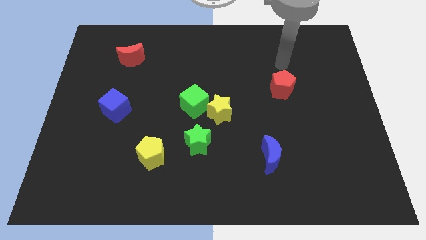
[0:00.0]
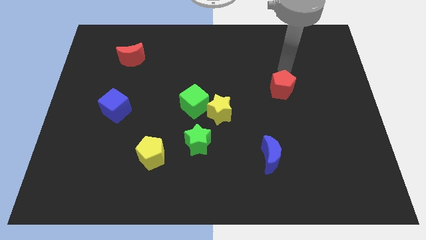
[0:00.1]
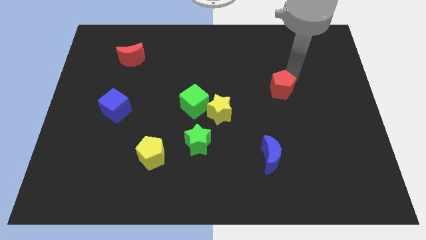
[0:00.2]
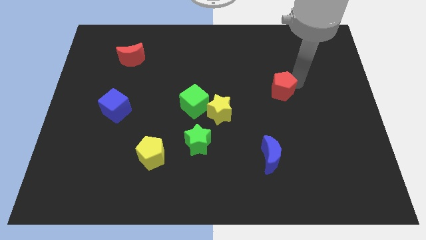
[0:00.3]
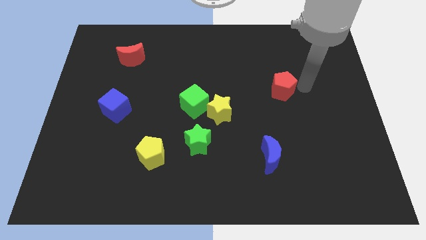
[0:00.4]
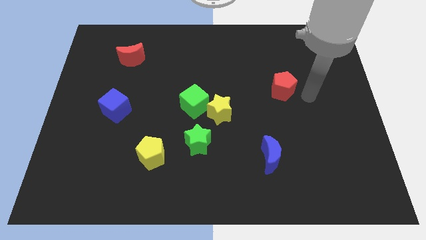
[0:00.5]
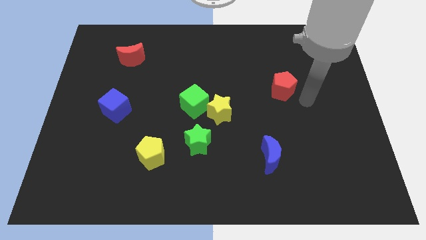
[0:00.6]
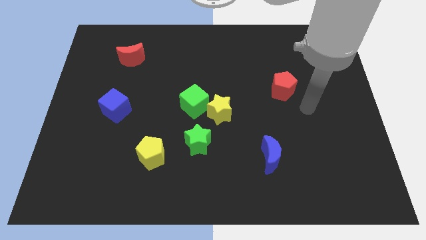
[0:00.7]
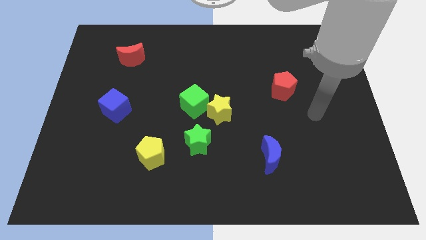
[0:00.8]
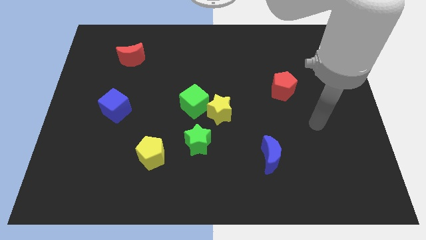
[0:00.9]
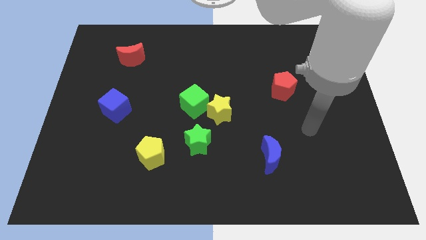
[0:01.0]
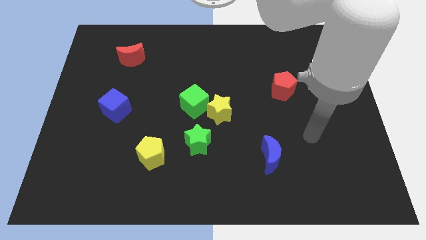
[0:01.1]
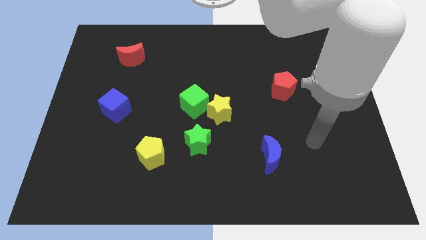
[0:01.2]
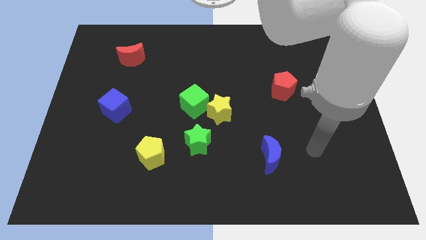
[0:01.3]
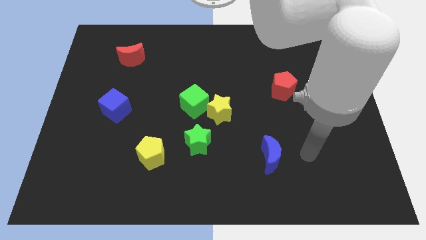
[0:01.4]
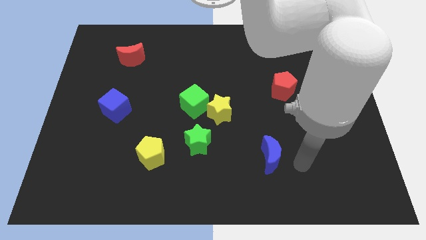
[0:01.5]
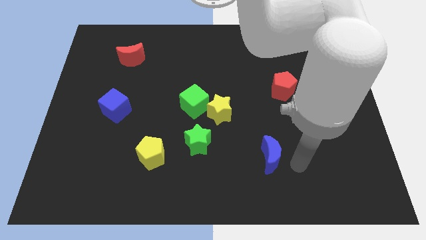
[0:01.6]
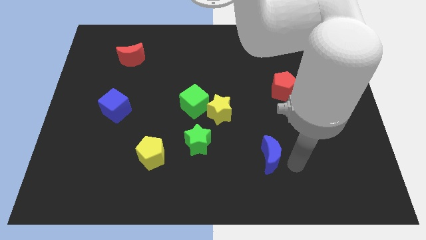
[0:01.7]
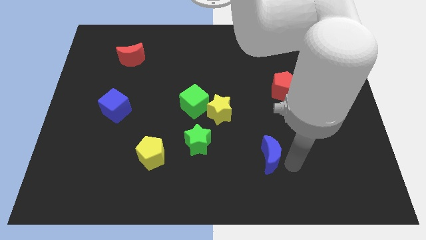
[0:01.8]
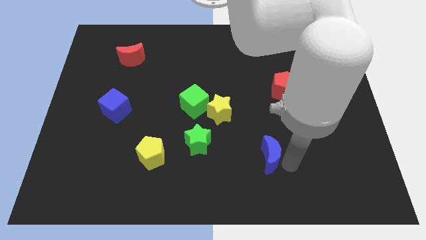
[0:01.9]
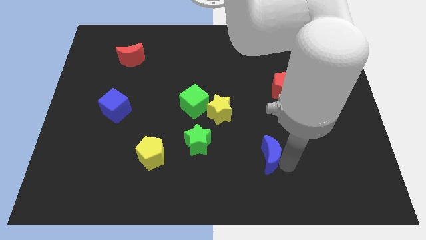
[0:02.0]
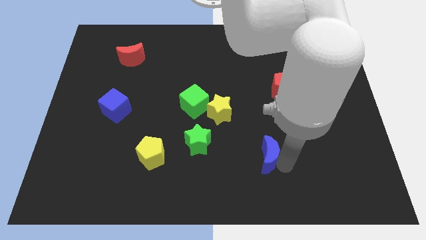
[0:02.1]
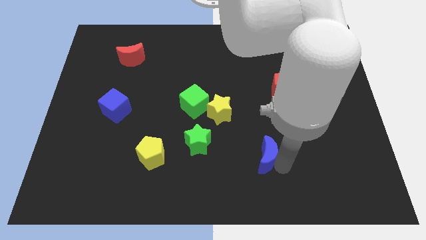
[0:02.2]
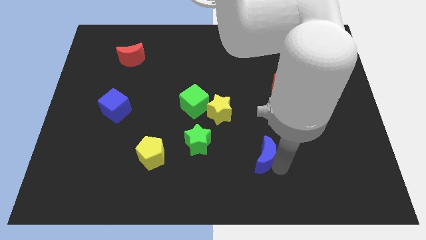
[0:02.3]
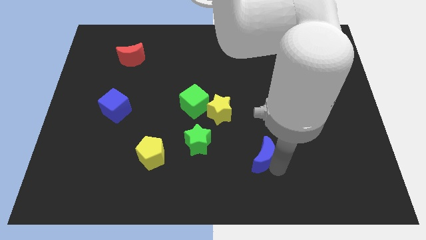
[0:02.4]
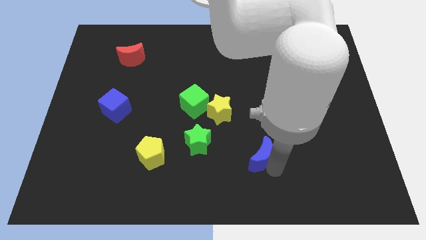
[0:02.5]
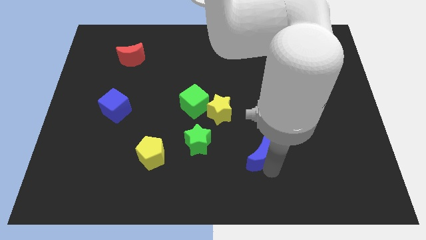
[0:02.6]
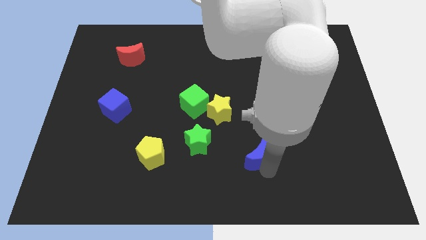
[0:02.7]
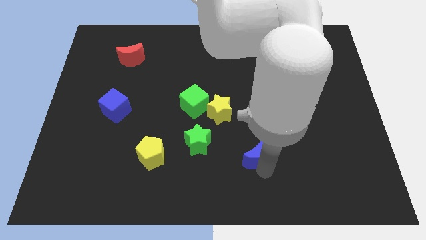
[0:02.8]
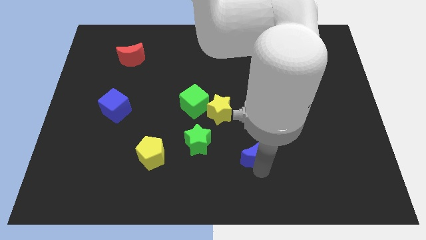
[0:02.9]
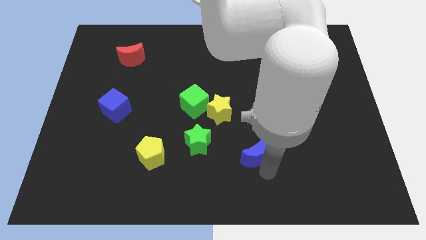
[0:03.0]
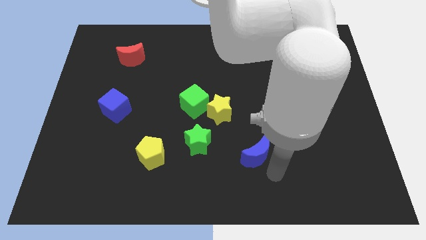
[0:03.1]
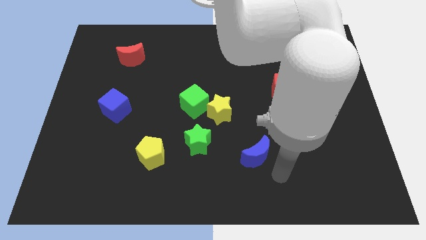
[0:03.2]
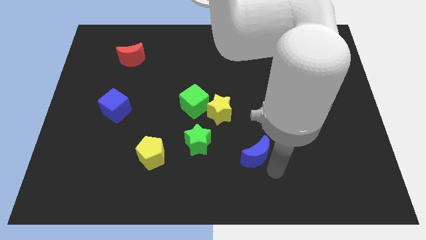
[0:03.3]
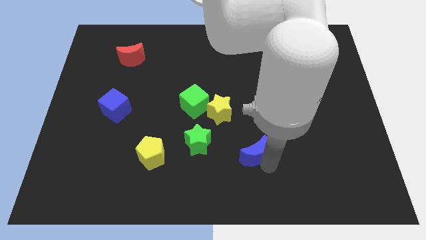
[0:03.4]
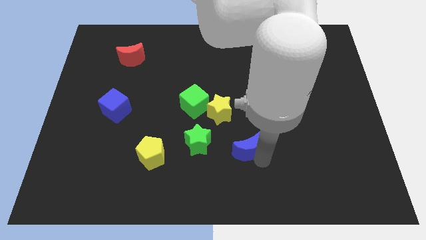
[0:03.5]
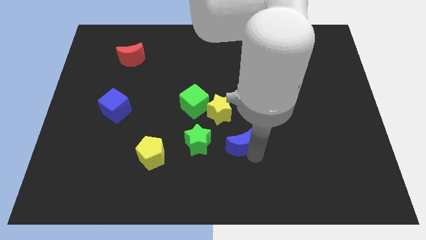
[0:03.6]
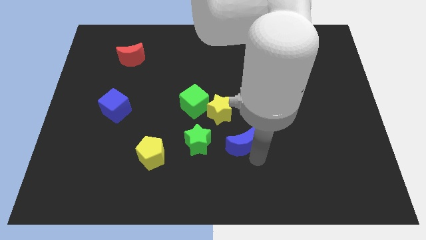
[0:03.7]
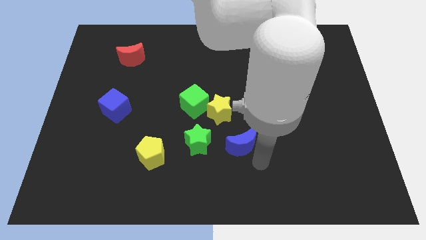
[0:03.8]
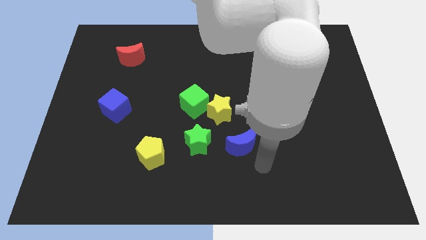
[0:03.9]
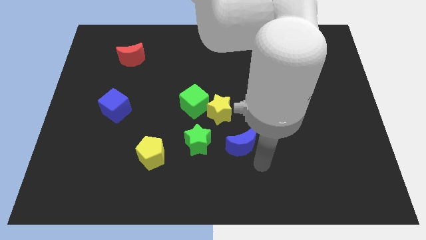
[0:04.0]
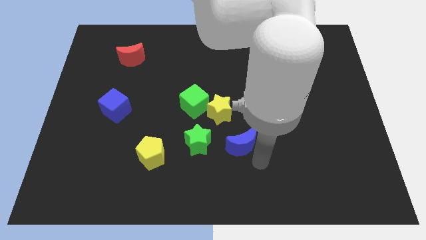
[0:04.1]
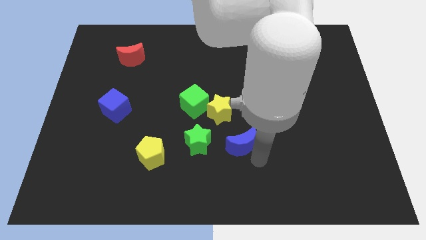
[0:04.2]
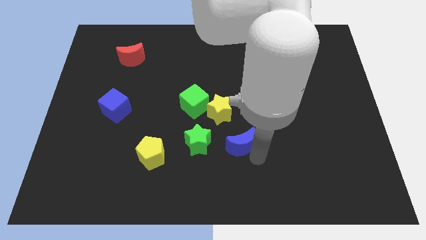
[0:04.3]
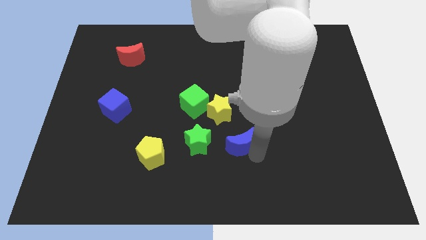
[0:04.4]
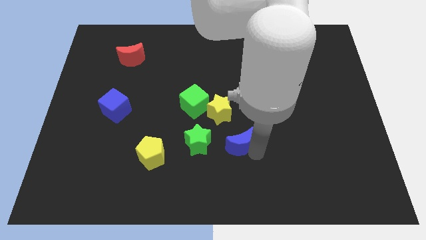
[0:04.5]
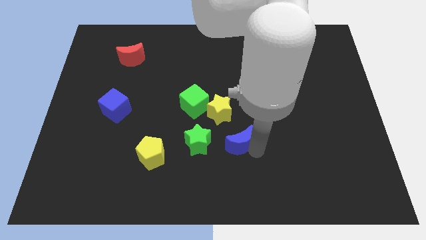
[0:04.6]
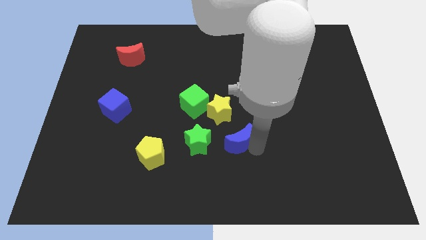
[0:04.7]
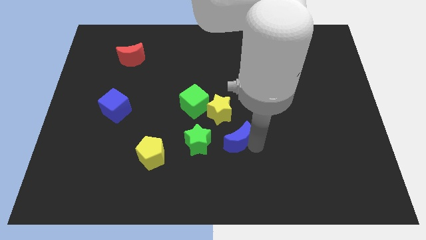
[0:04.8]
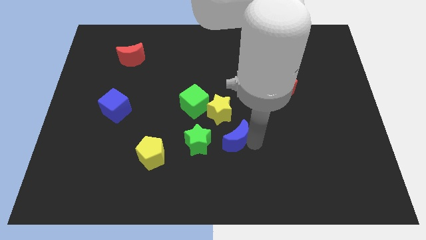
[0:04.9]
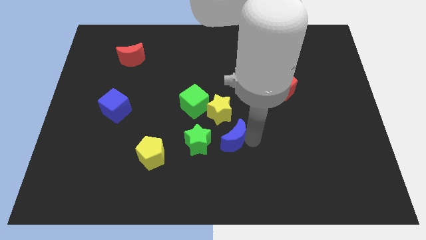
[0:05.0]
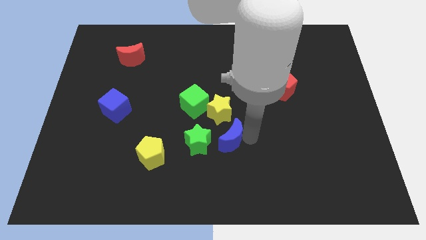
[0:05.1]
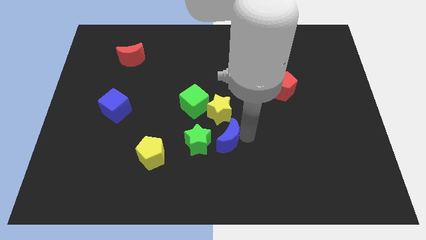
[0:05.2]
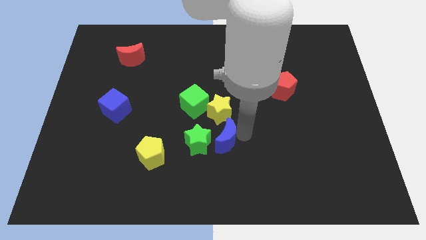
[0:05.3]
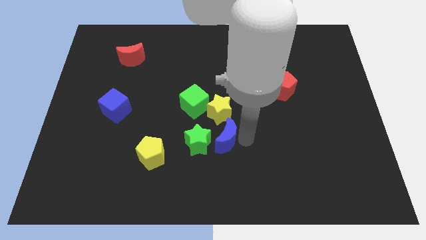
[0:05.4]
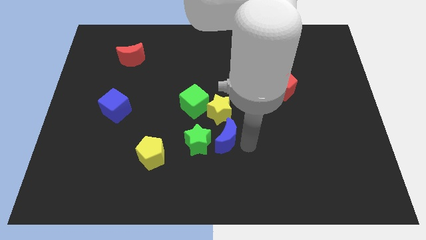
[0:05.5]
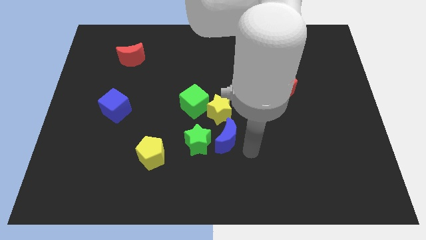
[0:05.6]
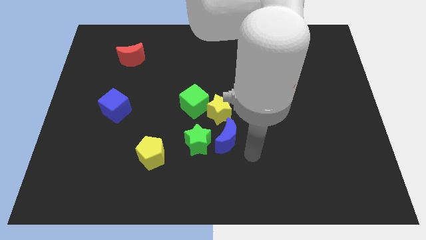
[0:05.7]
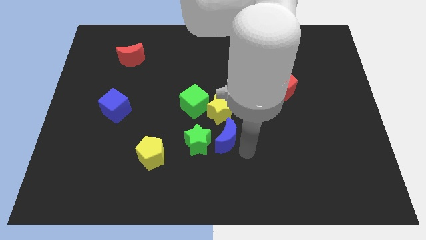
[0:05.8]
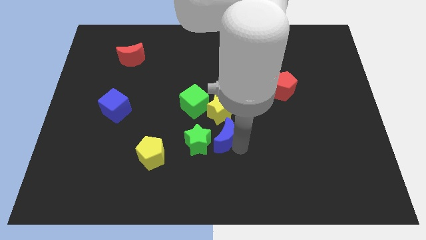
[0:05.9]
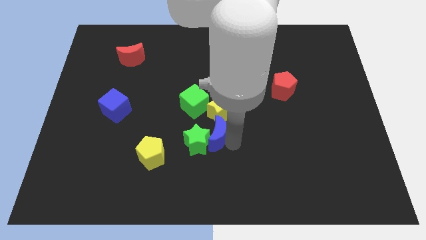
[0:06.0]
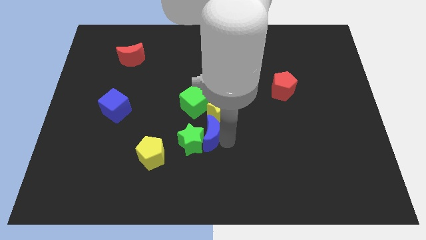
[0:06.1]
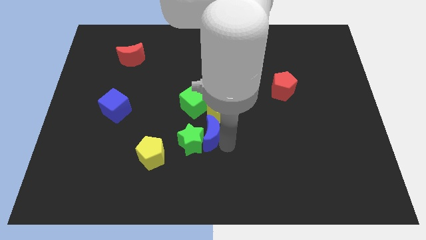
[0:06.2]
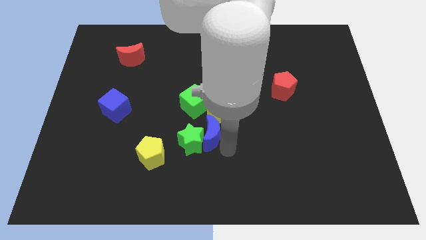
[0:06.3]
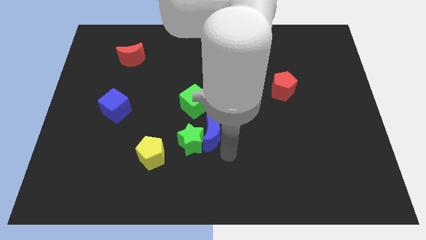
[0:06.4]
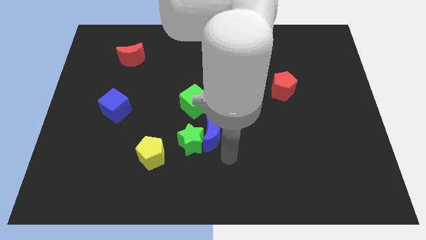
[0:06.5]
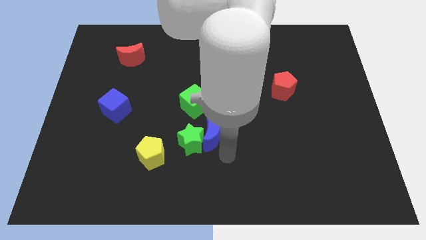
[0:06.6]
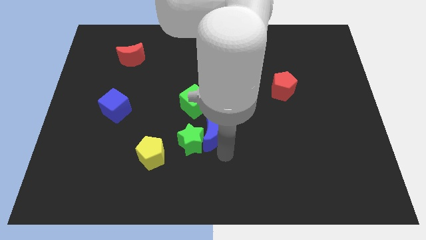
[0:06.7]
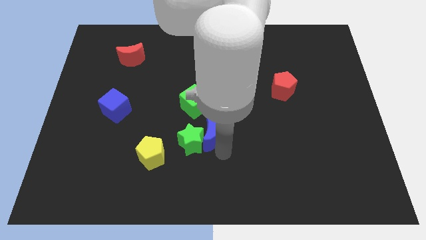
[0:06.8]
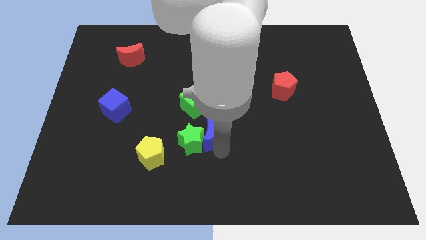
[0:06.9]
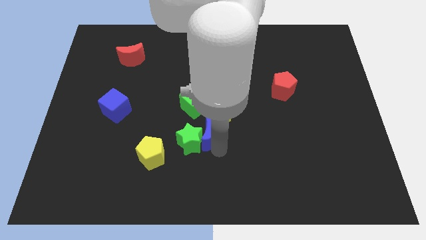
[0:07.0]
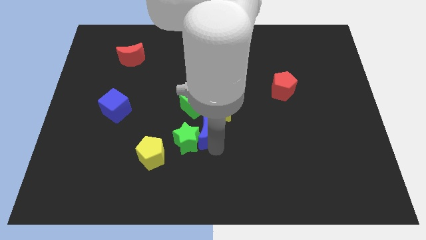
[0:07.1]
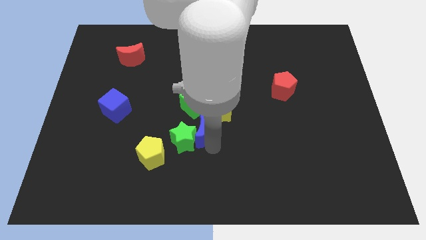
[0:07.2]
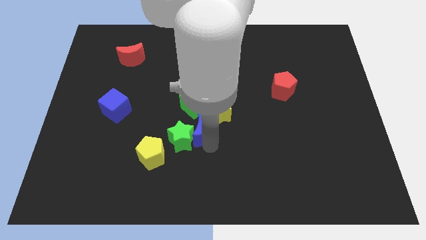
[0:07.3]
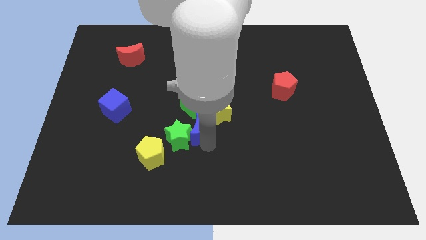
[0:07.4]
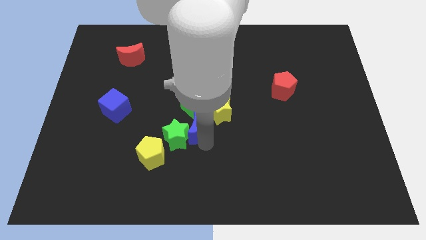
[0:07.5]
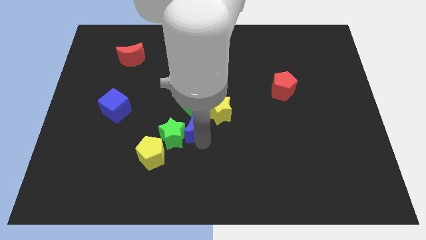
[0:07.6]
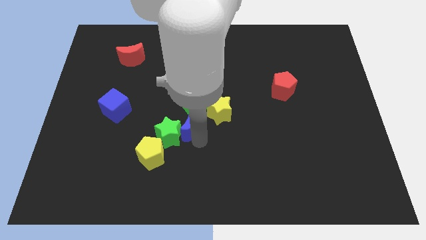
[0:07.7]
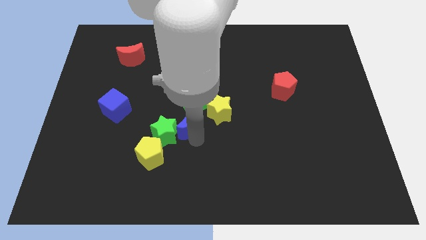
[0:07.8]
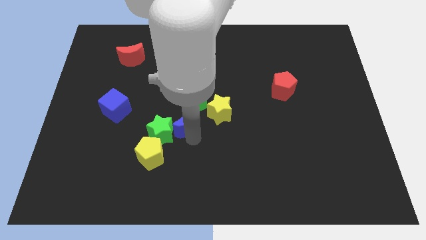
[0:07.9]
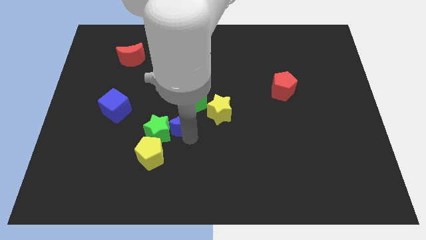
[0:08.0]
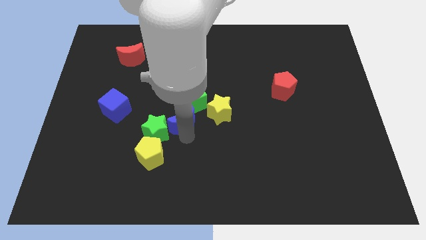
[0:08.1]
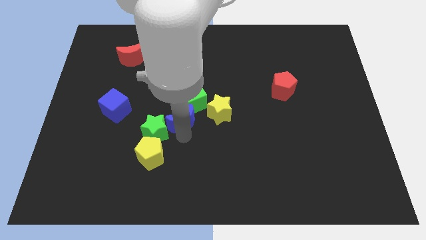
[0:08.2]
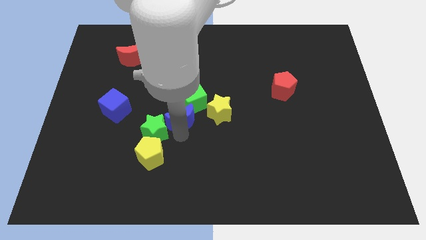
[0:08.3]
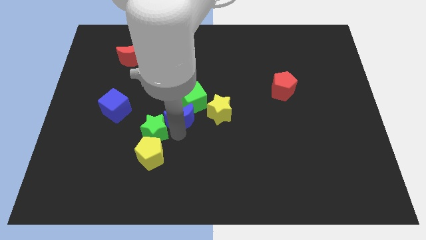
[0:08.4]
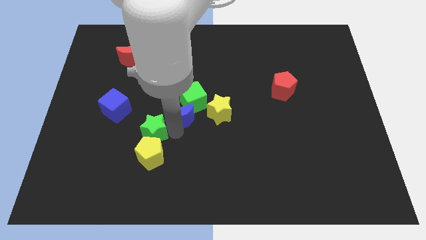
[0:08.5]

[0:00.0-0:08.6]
put the blue moon towards the green cube
